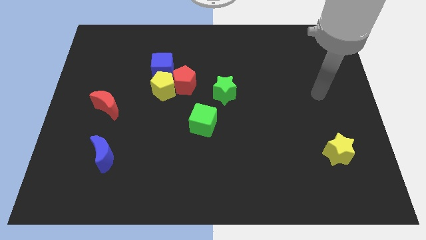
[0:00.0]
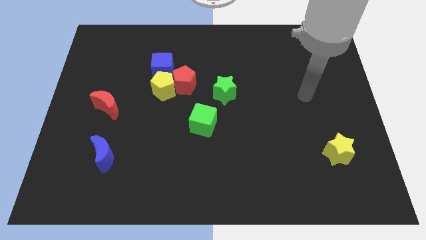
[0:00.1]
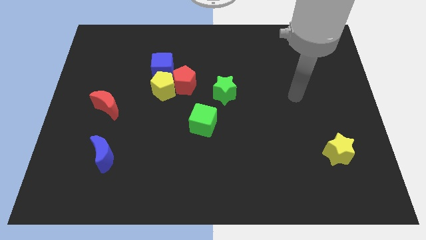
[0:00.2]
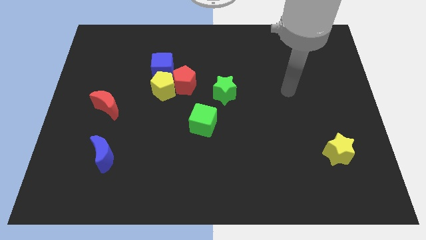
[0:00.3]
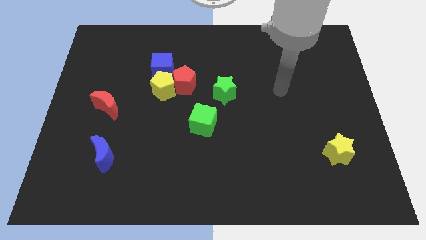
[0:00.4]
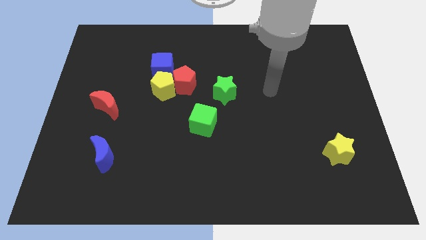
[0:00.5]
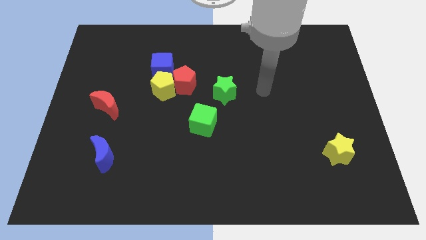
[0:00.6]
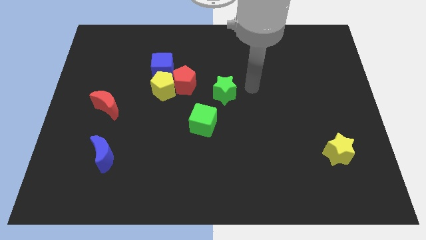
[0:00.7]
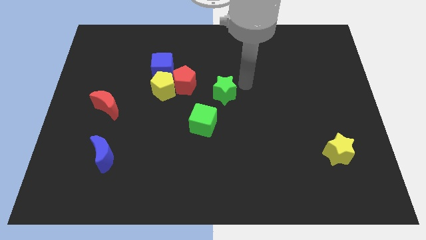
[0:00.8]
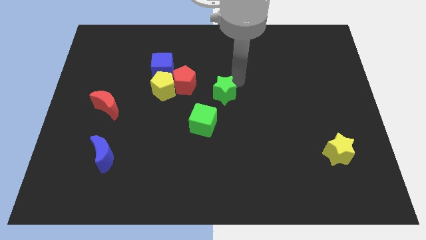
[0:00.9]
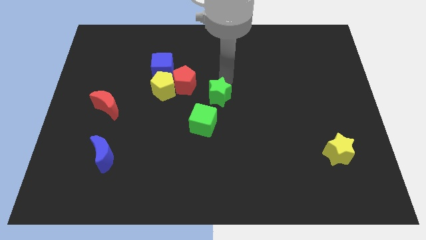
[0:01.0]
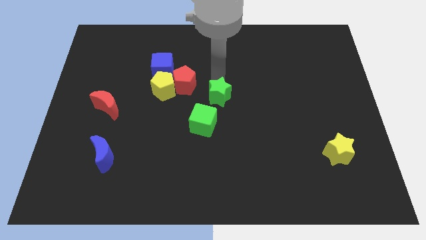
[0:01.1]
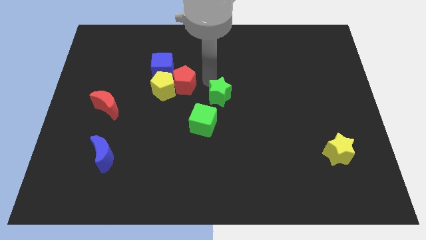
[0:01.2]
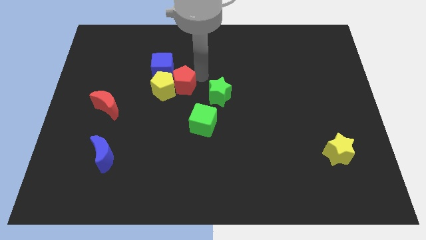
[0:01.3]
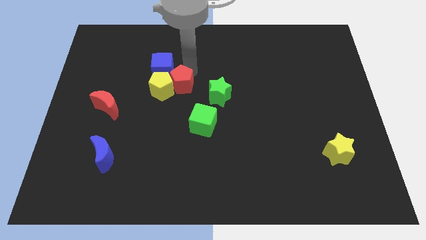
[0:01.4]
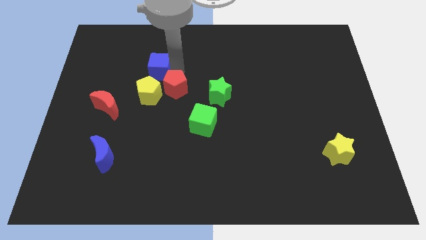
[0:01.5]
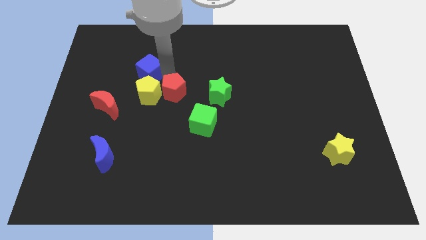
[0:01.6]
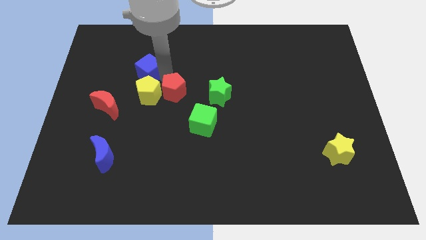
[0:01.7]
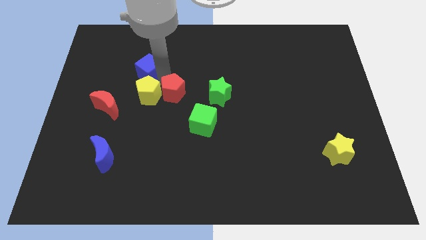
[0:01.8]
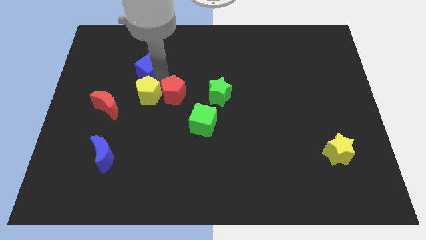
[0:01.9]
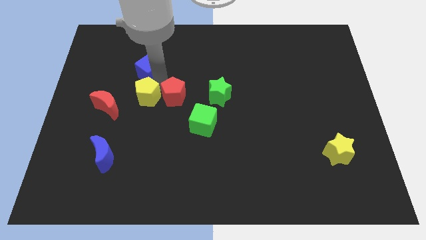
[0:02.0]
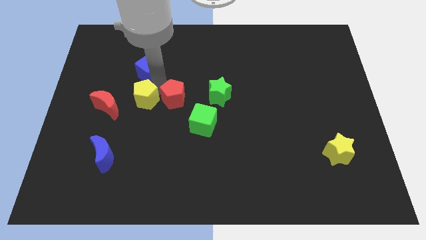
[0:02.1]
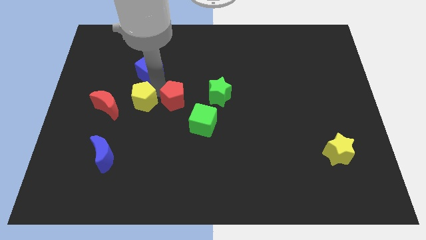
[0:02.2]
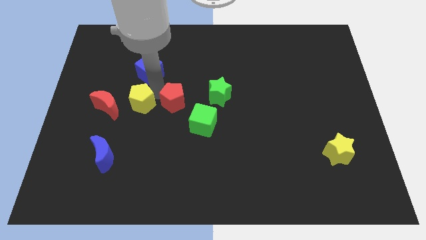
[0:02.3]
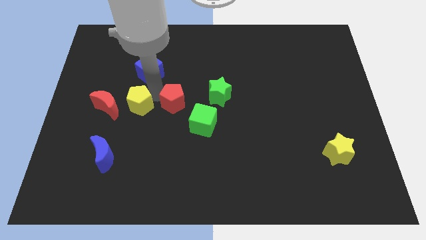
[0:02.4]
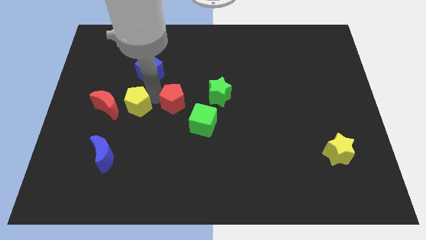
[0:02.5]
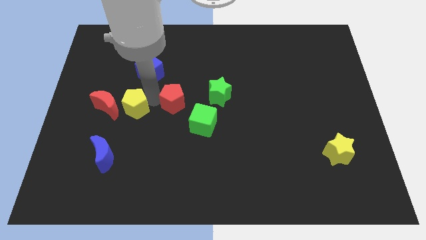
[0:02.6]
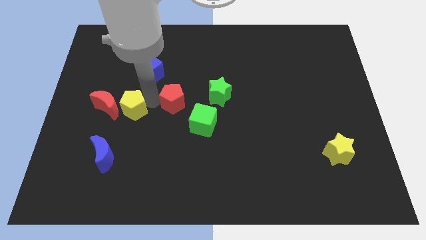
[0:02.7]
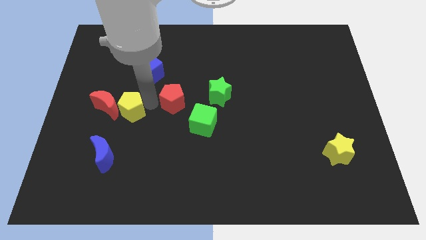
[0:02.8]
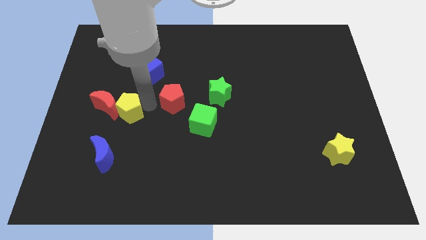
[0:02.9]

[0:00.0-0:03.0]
separate the yellow pentagon from the red pentagon and blue cube

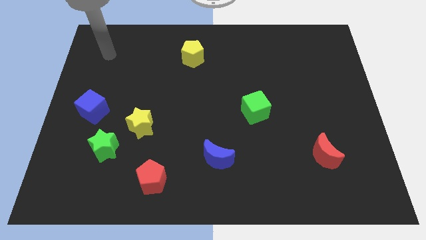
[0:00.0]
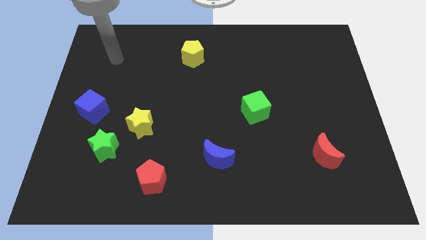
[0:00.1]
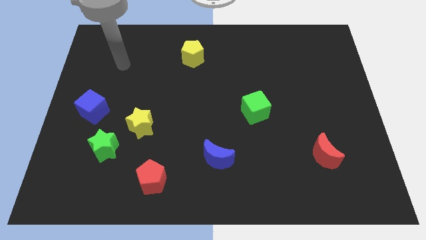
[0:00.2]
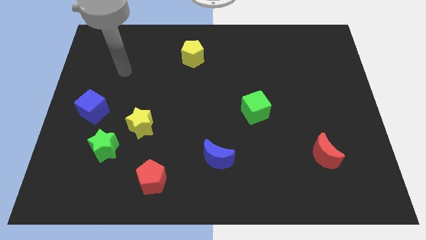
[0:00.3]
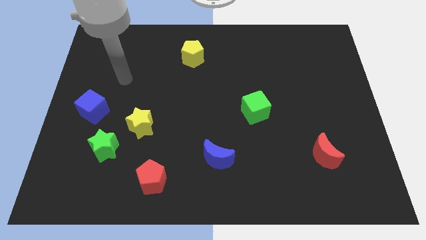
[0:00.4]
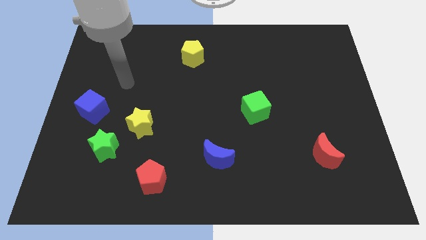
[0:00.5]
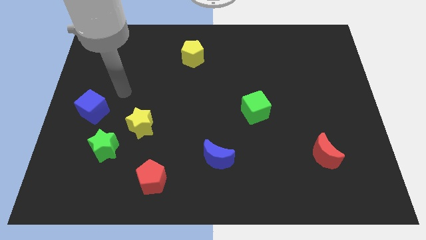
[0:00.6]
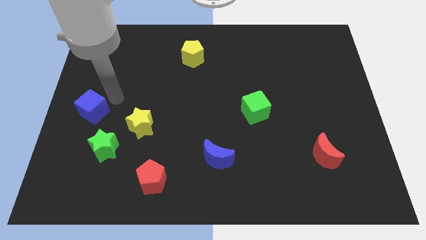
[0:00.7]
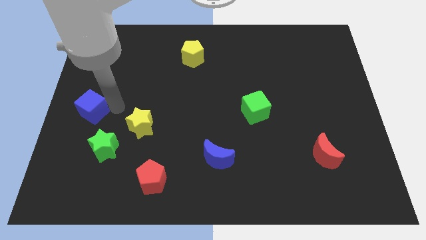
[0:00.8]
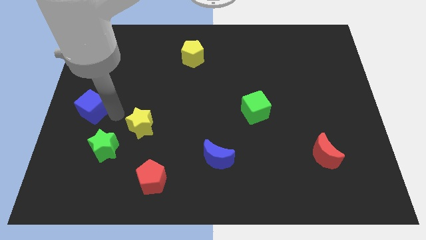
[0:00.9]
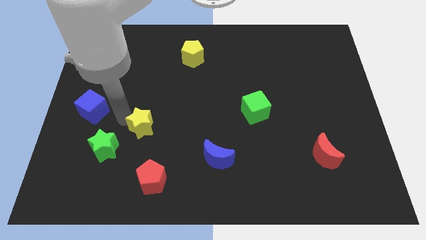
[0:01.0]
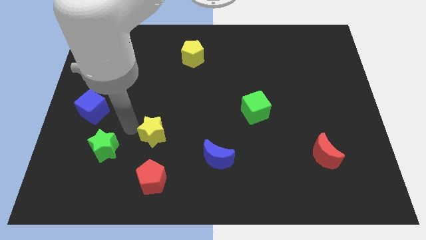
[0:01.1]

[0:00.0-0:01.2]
move the green star away from the yellow star

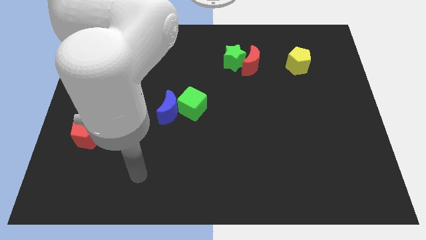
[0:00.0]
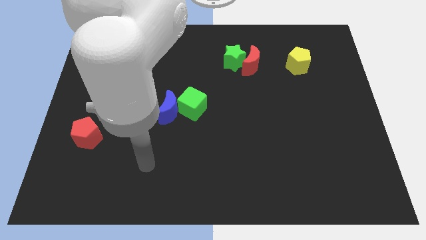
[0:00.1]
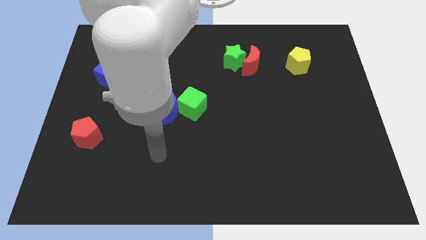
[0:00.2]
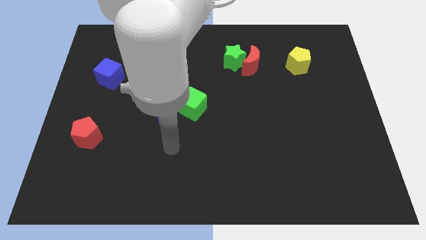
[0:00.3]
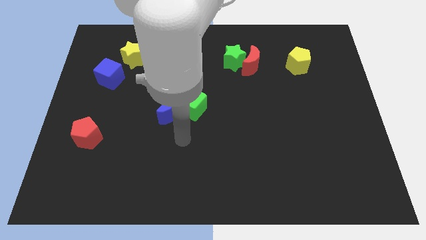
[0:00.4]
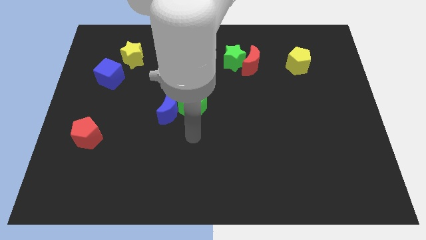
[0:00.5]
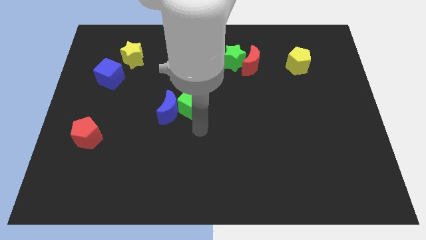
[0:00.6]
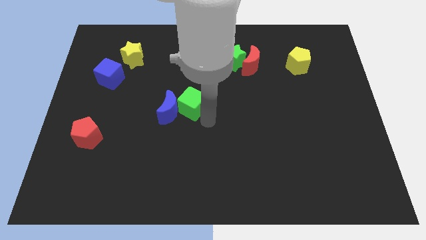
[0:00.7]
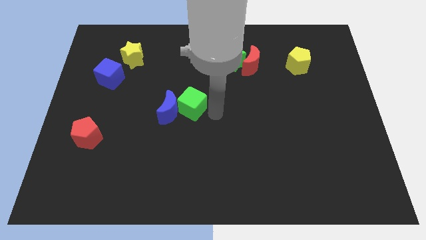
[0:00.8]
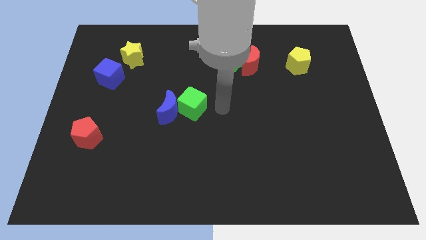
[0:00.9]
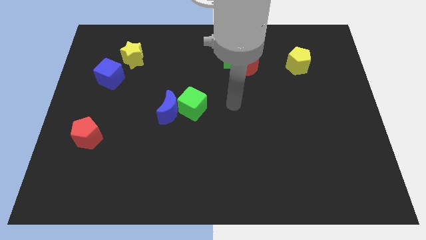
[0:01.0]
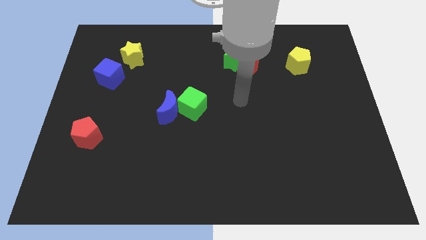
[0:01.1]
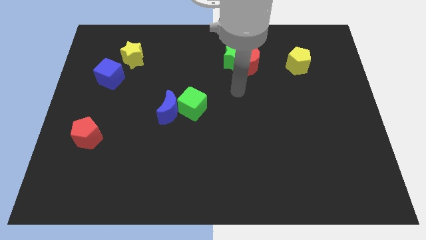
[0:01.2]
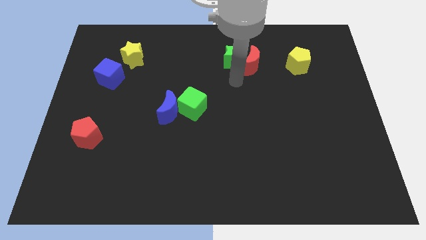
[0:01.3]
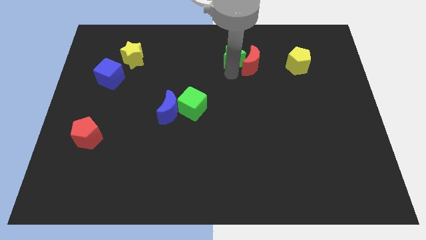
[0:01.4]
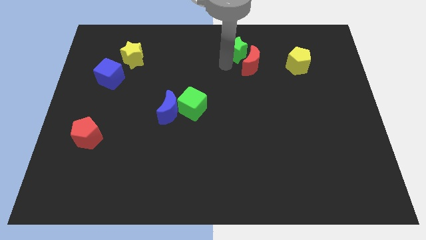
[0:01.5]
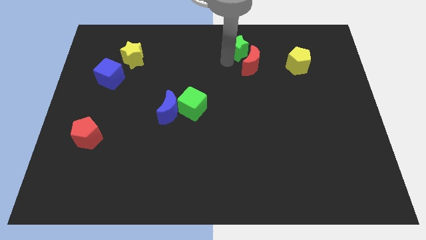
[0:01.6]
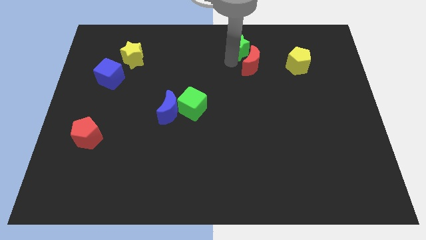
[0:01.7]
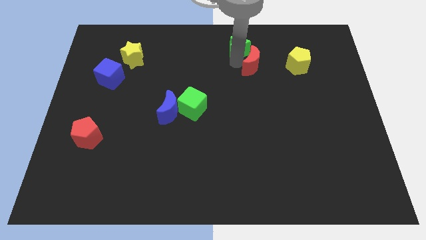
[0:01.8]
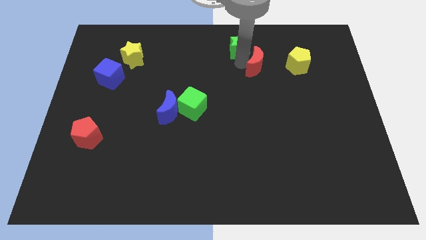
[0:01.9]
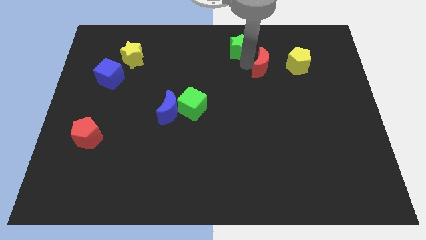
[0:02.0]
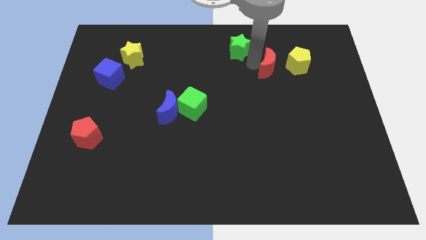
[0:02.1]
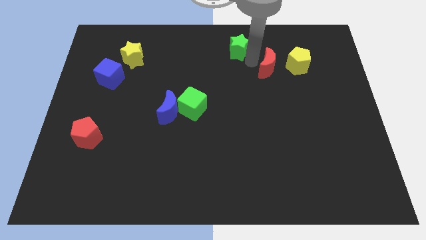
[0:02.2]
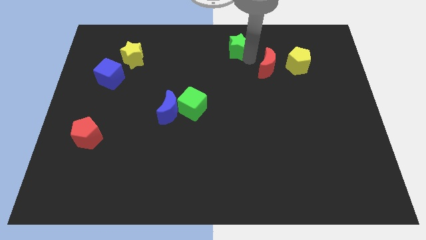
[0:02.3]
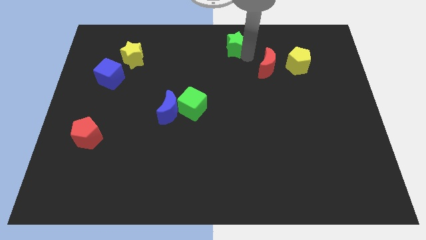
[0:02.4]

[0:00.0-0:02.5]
separate the red moon from the green star

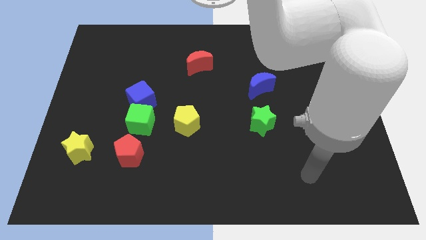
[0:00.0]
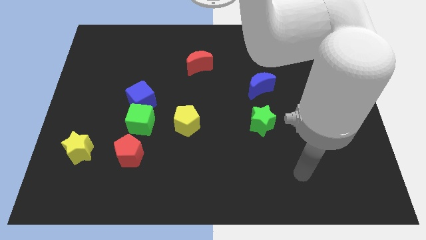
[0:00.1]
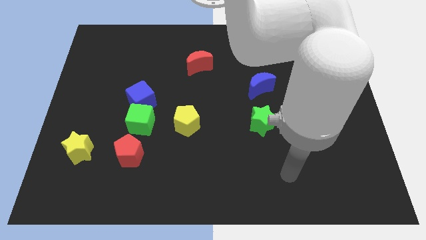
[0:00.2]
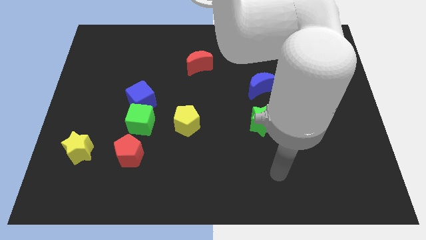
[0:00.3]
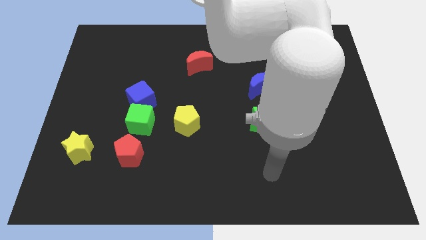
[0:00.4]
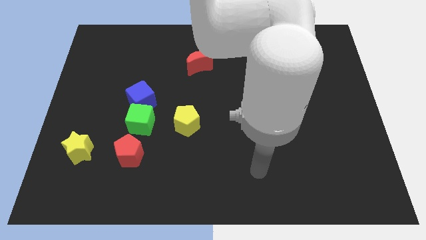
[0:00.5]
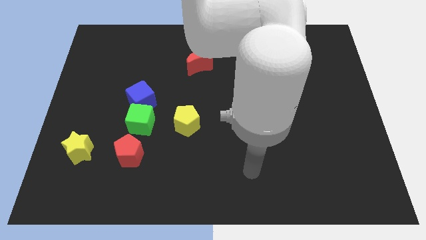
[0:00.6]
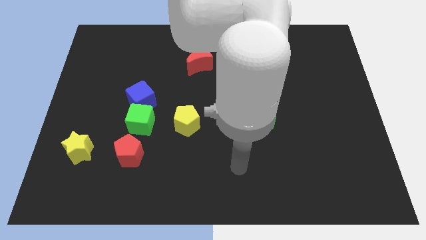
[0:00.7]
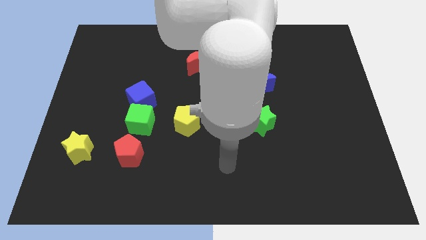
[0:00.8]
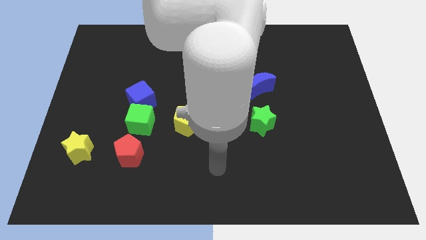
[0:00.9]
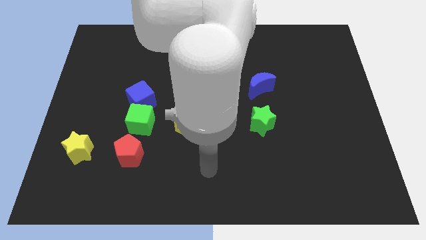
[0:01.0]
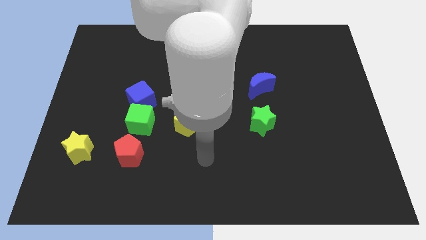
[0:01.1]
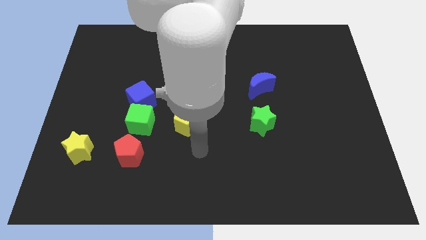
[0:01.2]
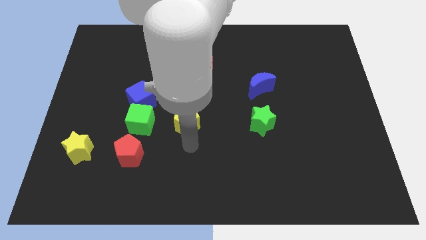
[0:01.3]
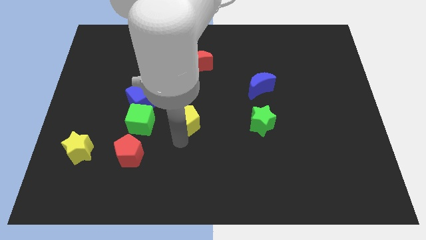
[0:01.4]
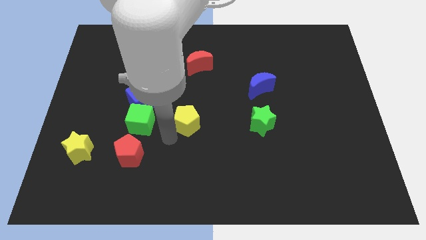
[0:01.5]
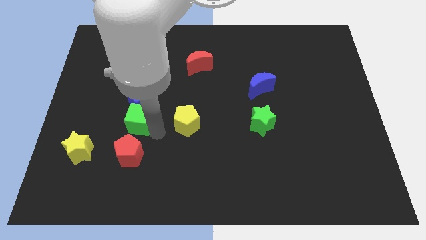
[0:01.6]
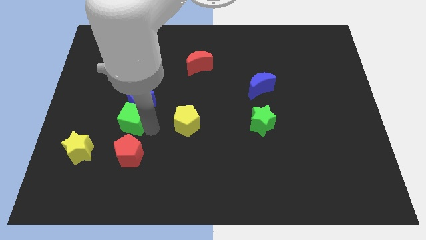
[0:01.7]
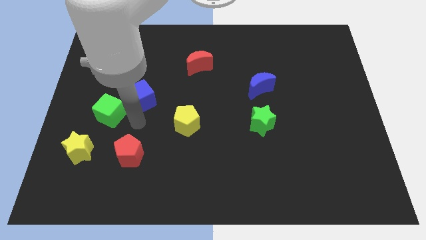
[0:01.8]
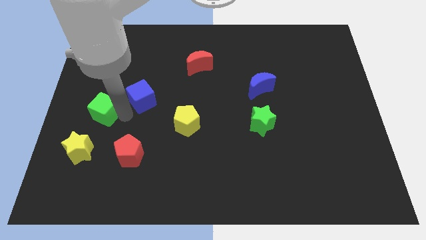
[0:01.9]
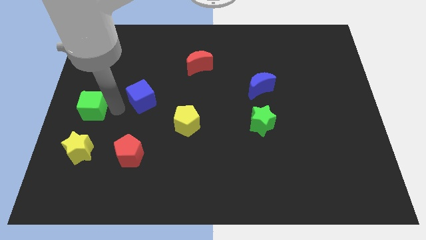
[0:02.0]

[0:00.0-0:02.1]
pull the blue cube apart from the green cube

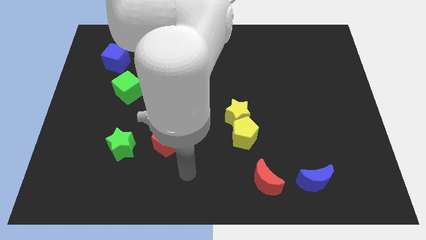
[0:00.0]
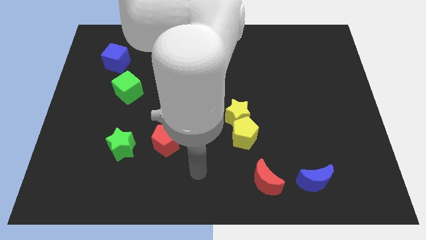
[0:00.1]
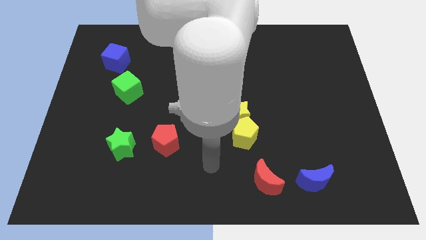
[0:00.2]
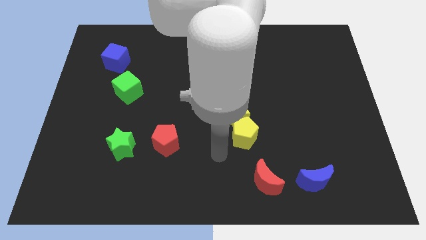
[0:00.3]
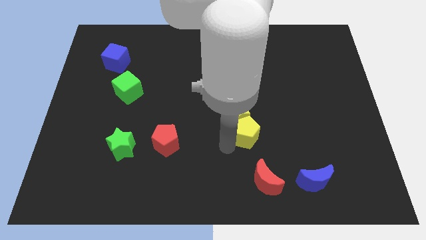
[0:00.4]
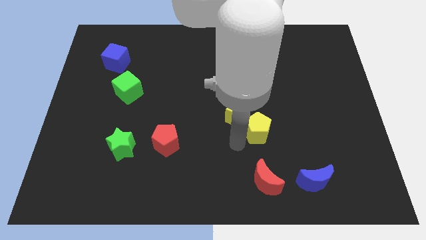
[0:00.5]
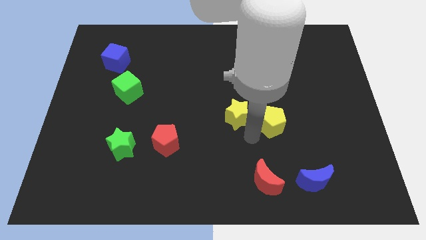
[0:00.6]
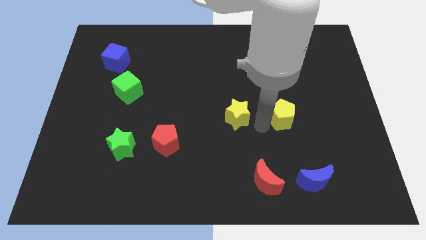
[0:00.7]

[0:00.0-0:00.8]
separate the yellow star from the yellow pentagon
